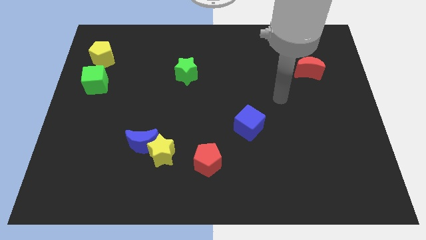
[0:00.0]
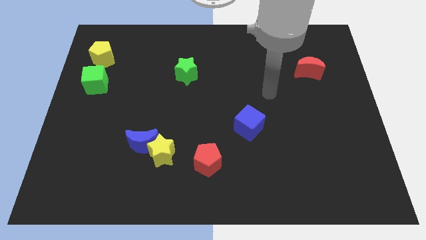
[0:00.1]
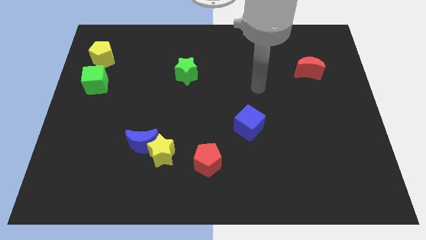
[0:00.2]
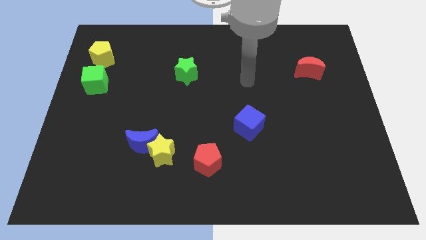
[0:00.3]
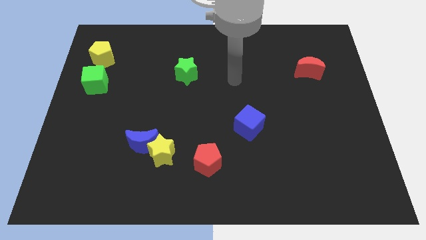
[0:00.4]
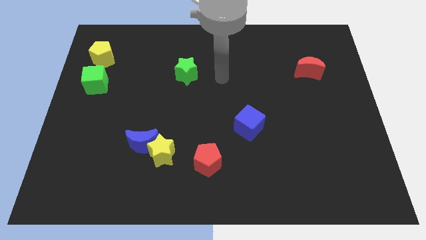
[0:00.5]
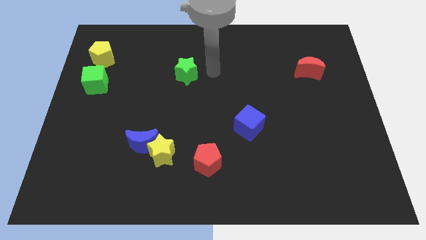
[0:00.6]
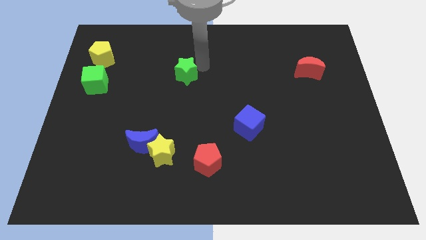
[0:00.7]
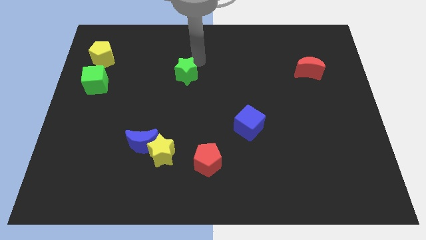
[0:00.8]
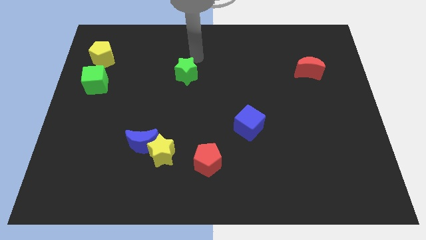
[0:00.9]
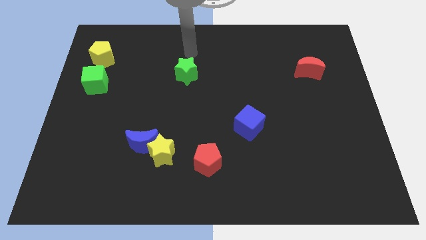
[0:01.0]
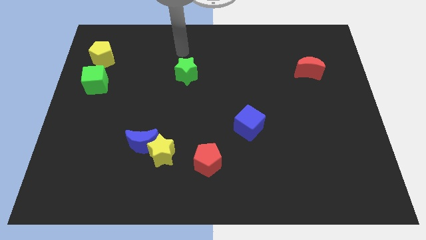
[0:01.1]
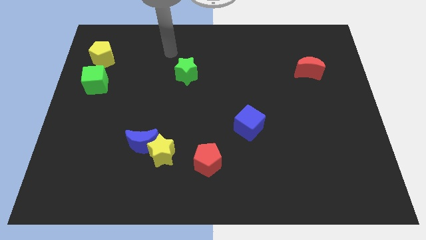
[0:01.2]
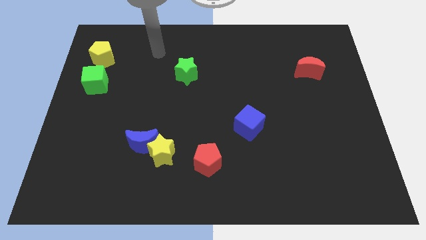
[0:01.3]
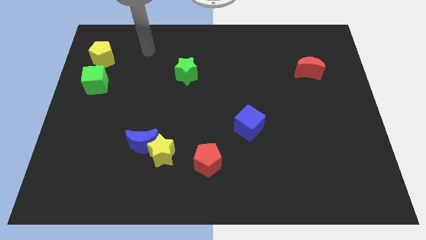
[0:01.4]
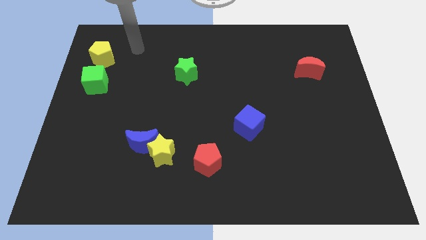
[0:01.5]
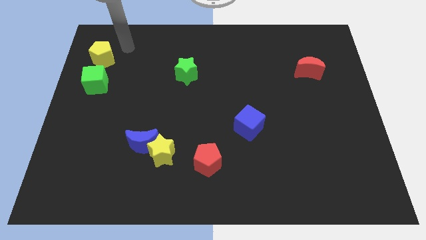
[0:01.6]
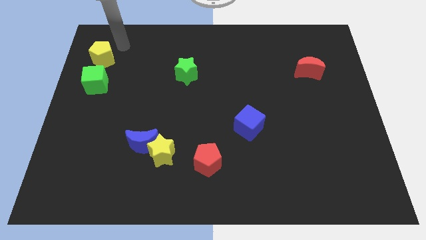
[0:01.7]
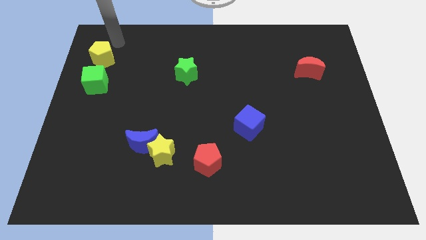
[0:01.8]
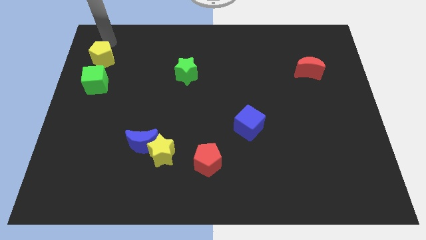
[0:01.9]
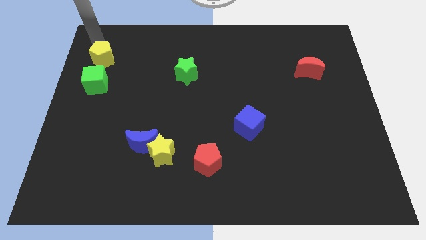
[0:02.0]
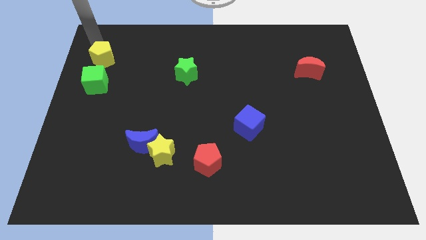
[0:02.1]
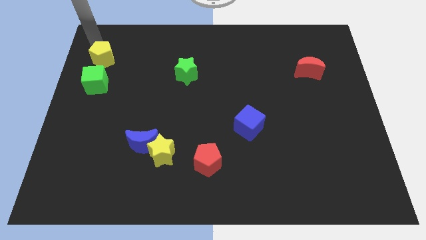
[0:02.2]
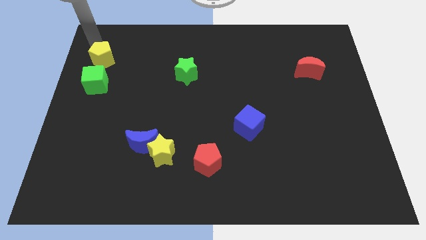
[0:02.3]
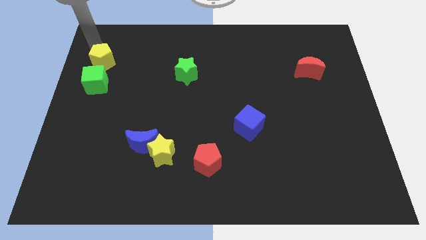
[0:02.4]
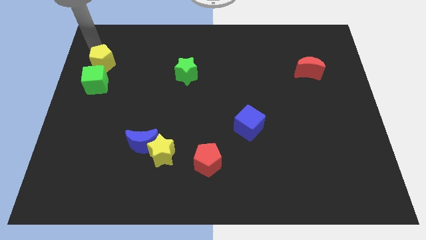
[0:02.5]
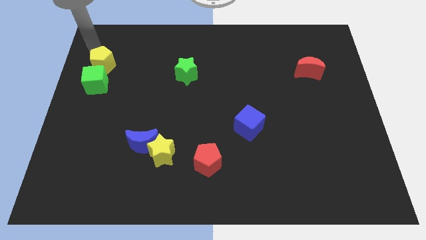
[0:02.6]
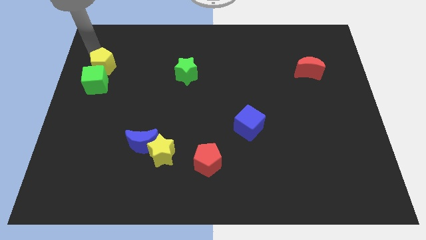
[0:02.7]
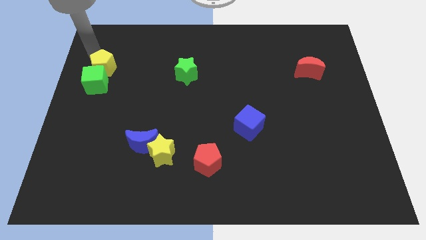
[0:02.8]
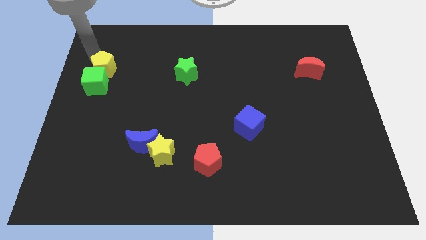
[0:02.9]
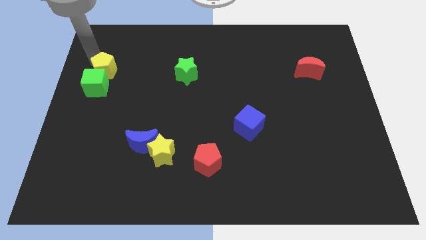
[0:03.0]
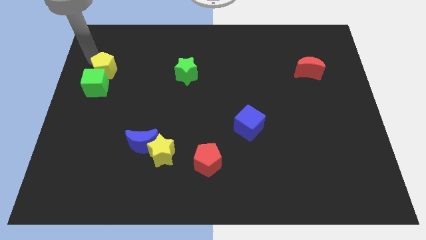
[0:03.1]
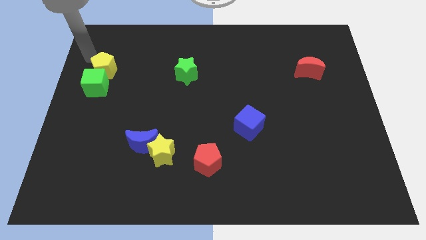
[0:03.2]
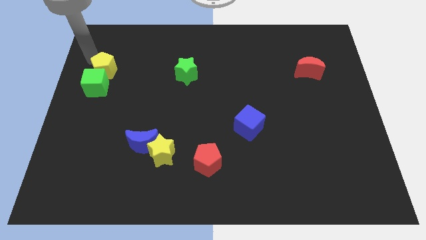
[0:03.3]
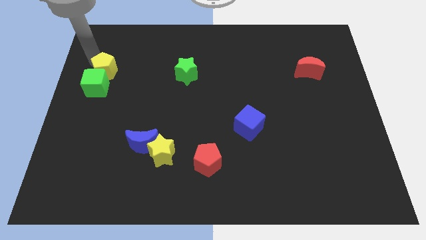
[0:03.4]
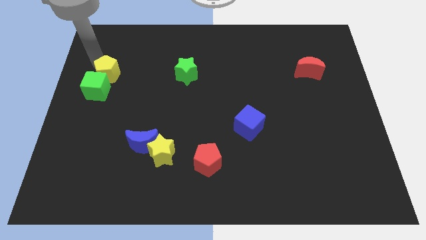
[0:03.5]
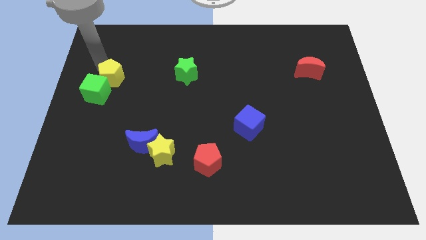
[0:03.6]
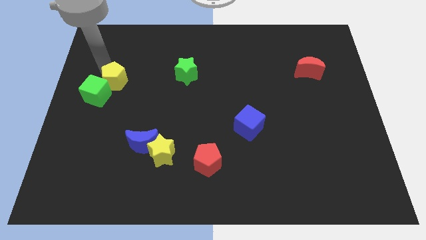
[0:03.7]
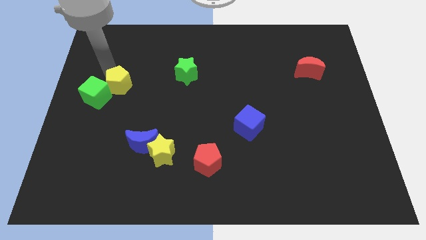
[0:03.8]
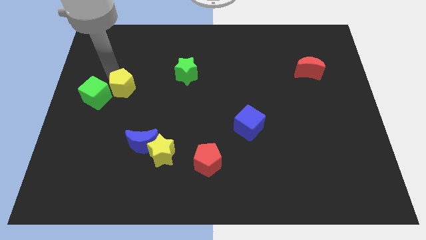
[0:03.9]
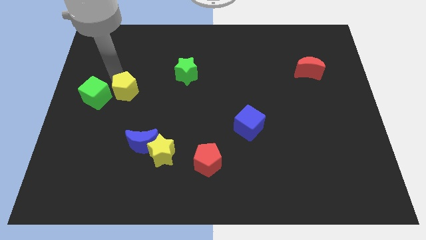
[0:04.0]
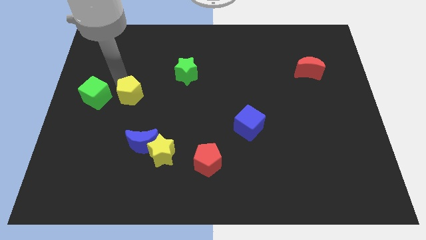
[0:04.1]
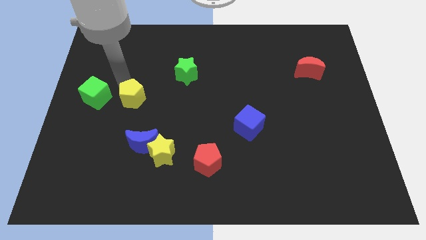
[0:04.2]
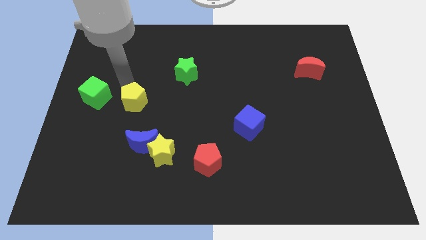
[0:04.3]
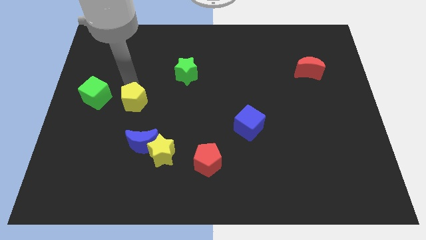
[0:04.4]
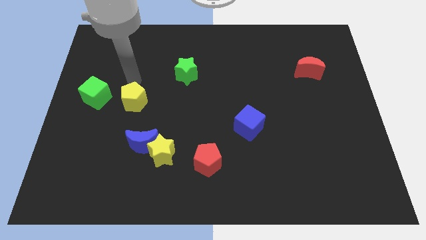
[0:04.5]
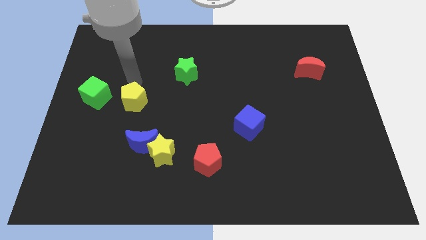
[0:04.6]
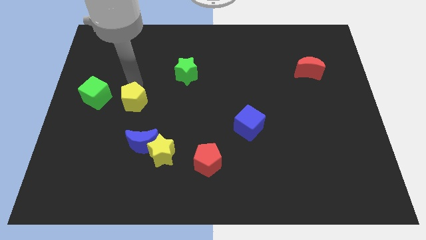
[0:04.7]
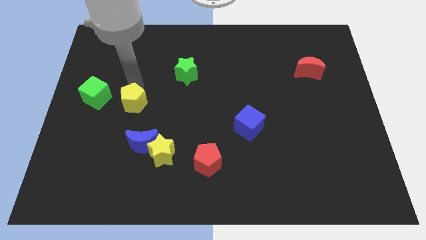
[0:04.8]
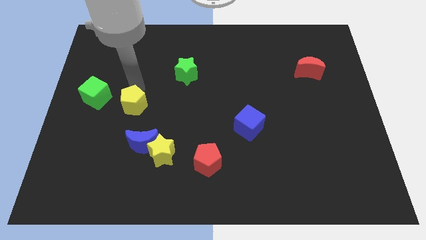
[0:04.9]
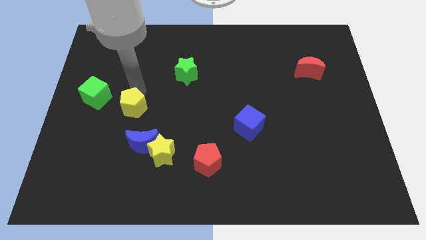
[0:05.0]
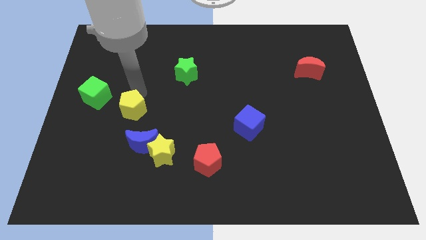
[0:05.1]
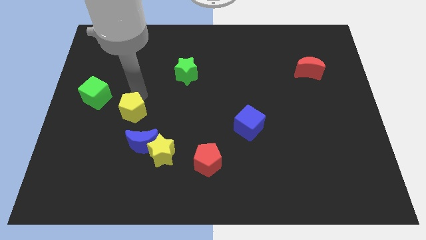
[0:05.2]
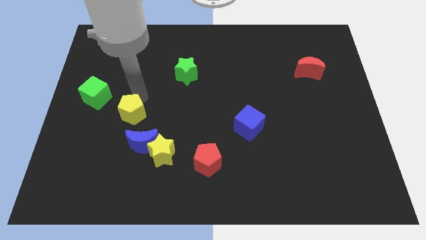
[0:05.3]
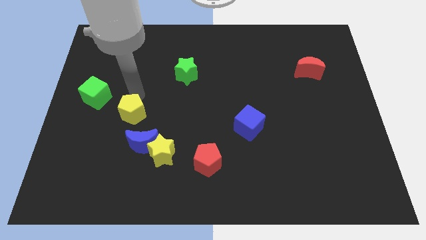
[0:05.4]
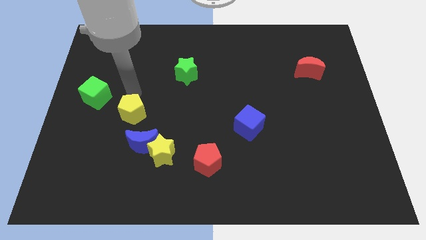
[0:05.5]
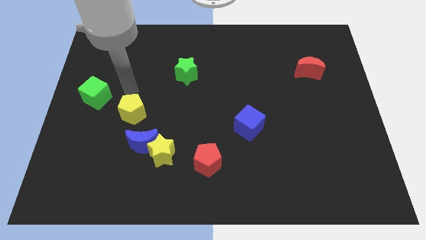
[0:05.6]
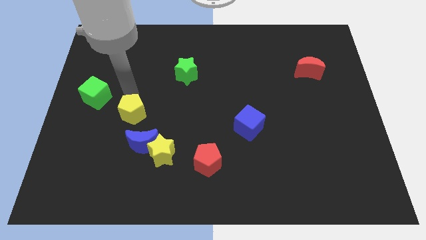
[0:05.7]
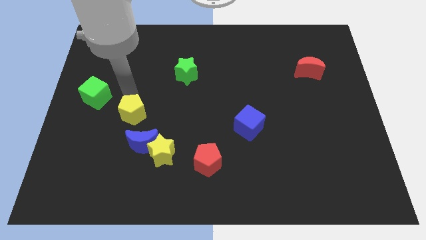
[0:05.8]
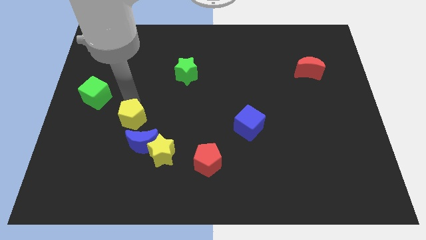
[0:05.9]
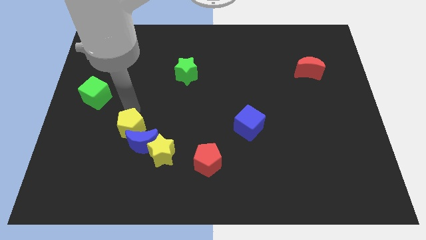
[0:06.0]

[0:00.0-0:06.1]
move the yellow pentagon towards the blue moon
